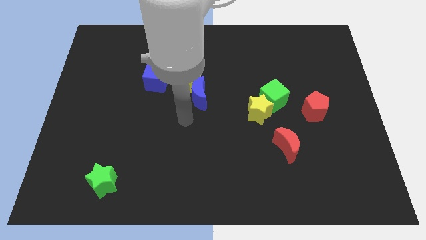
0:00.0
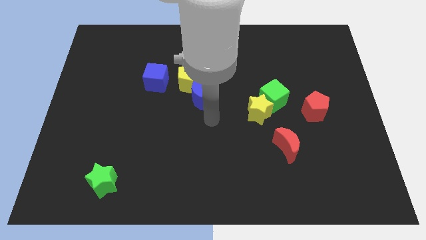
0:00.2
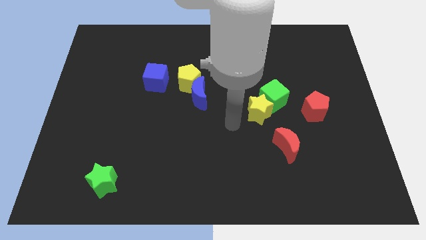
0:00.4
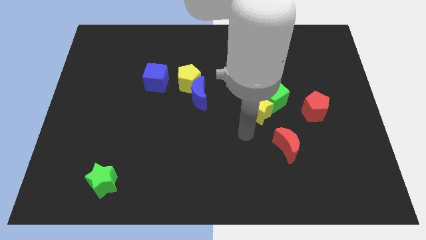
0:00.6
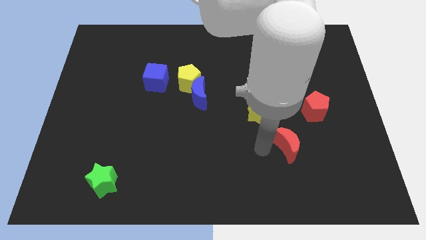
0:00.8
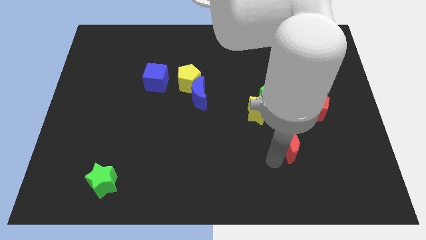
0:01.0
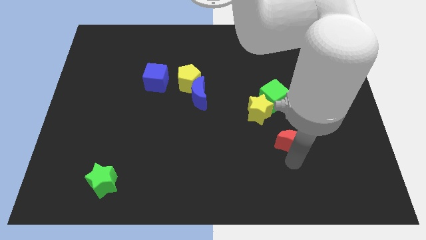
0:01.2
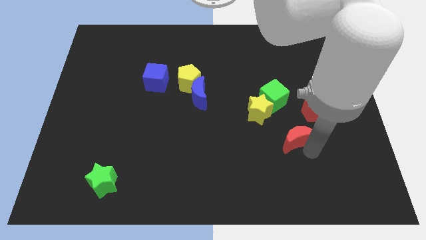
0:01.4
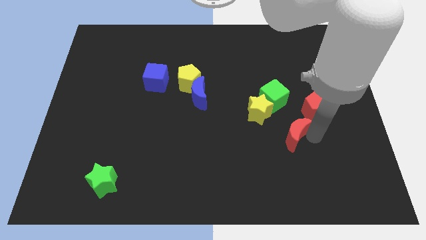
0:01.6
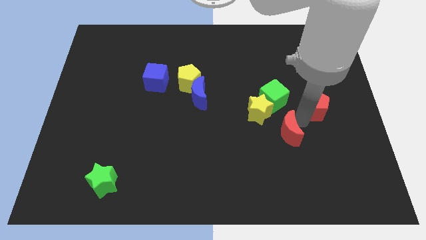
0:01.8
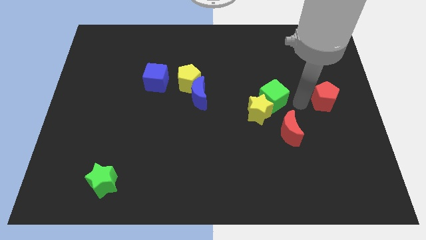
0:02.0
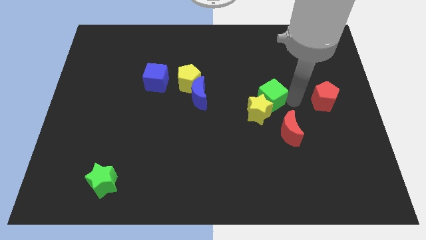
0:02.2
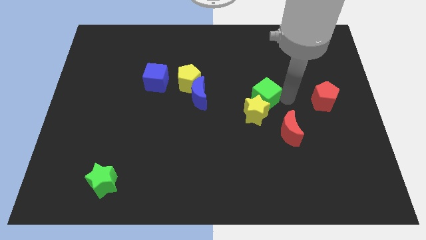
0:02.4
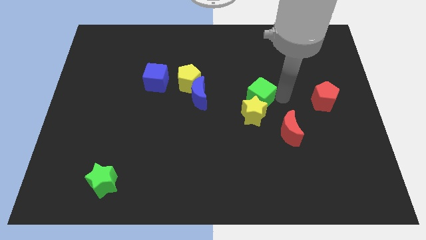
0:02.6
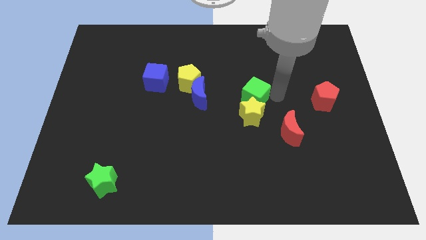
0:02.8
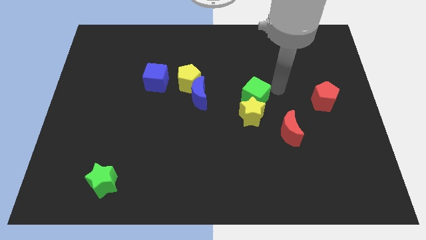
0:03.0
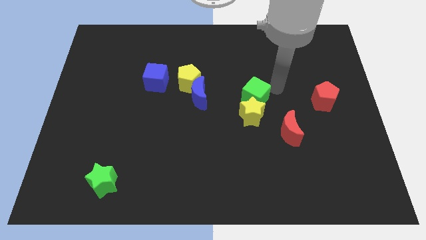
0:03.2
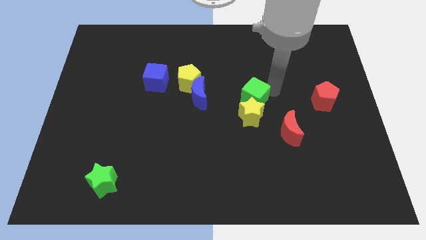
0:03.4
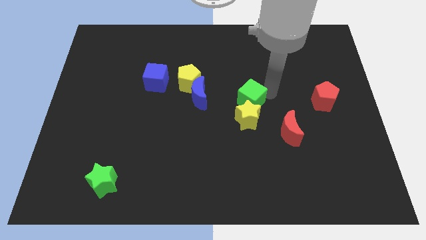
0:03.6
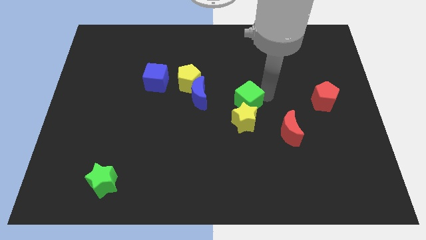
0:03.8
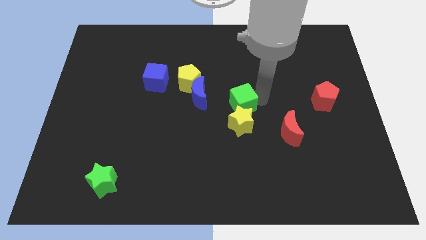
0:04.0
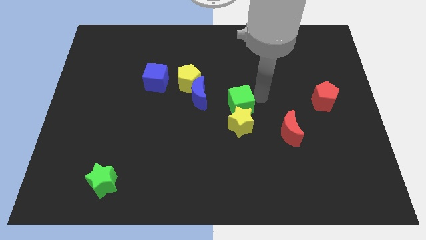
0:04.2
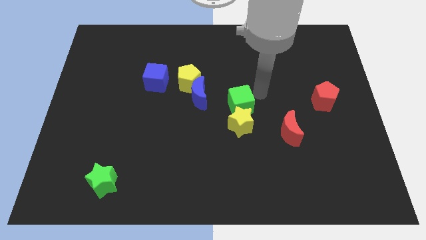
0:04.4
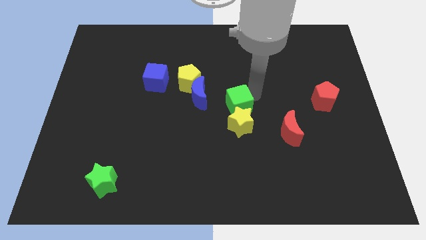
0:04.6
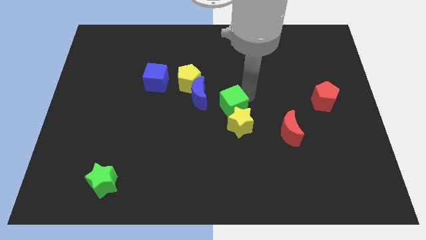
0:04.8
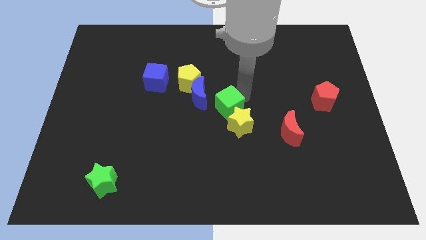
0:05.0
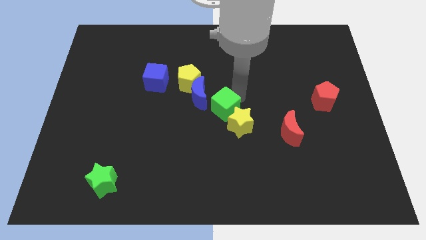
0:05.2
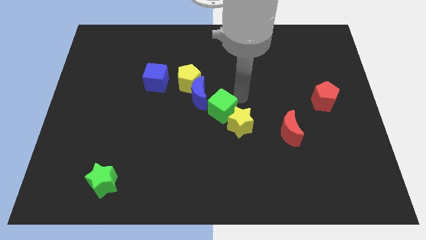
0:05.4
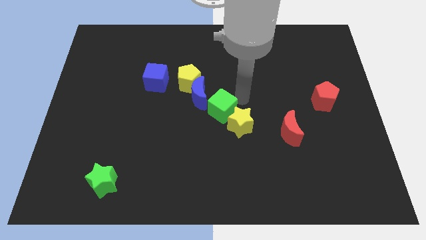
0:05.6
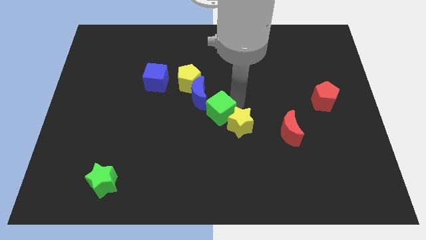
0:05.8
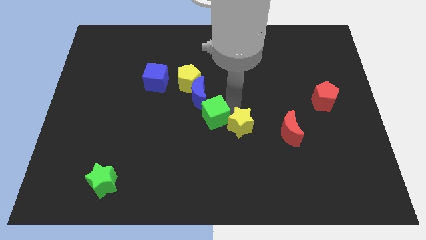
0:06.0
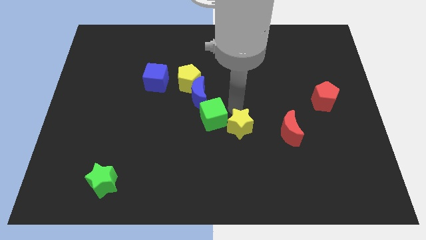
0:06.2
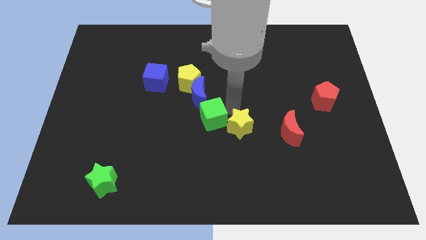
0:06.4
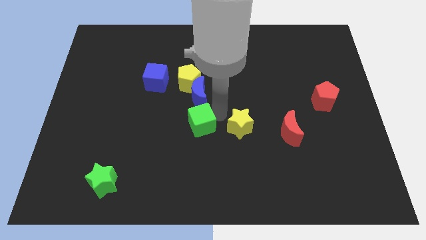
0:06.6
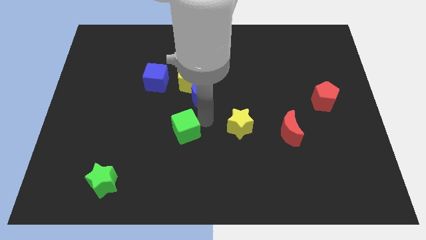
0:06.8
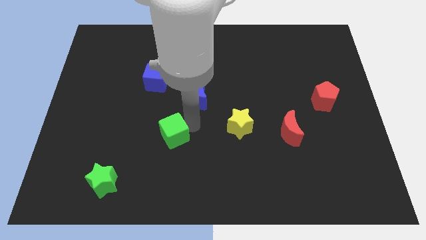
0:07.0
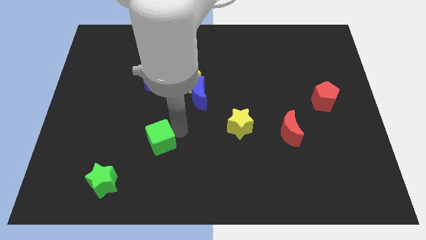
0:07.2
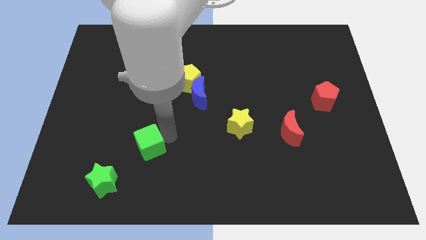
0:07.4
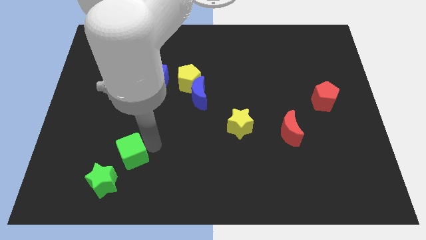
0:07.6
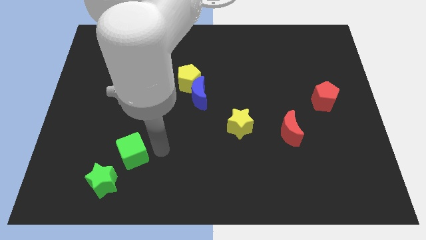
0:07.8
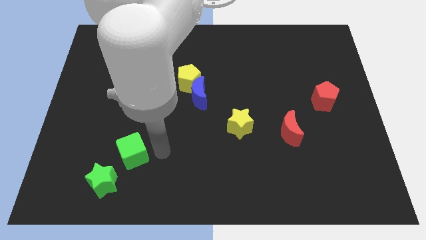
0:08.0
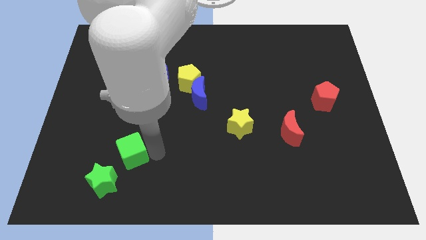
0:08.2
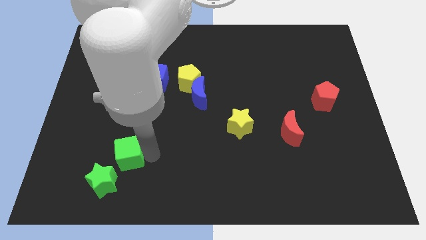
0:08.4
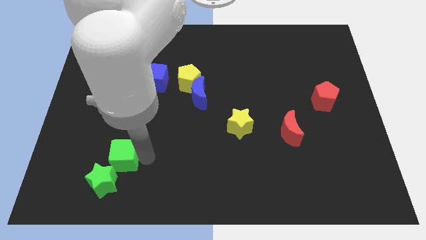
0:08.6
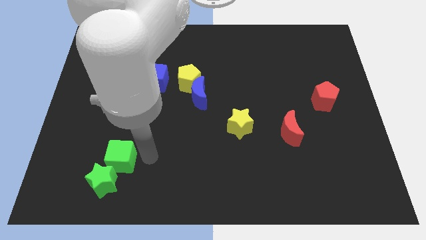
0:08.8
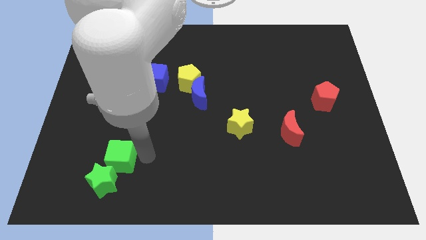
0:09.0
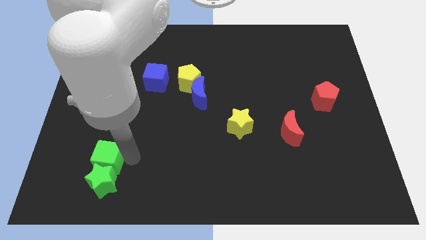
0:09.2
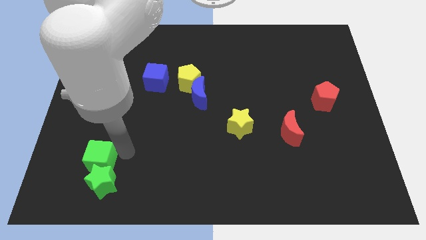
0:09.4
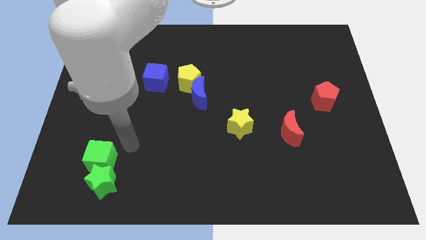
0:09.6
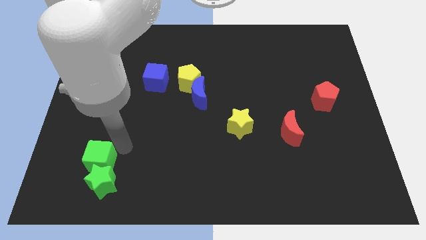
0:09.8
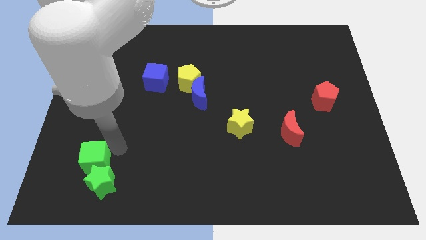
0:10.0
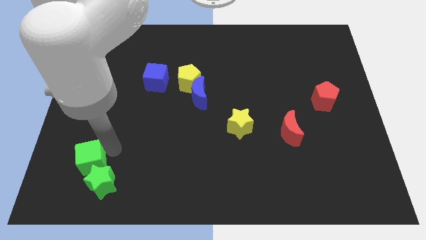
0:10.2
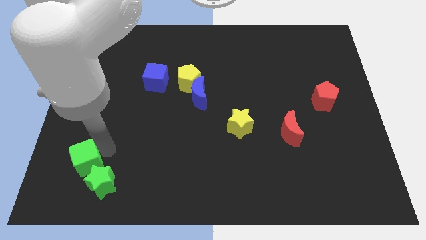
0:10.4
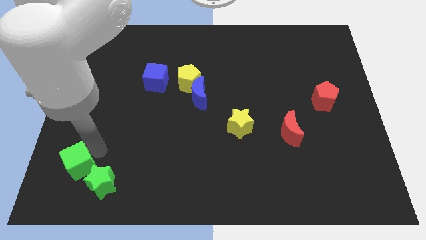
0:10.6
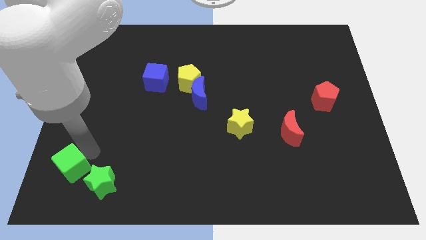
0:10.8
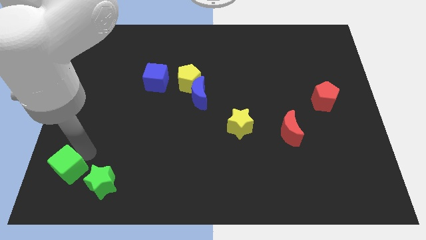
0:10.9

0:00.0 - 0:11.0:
push the green cube to the bottom left corner

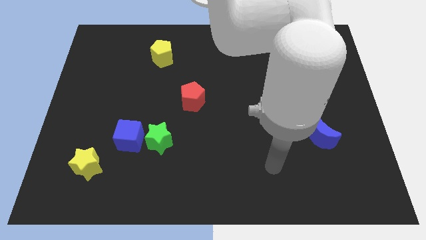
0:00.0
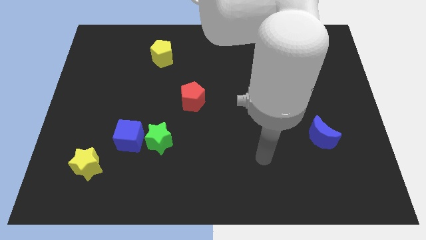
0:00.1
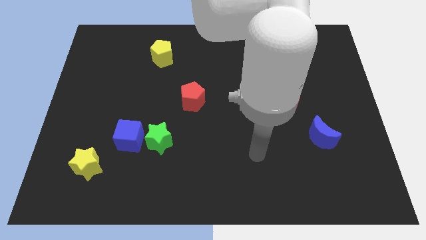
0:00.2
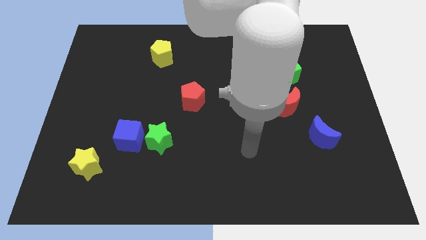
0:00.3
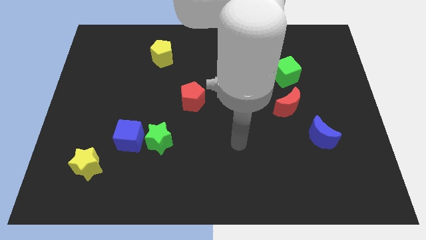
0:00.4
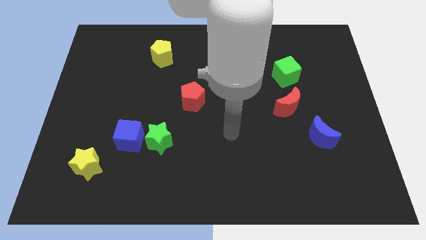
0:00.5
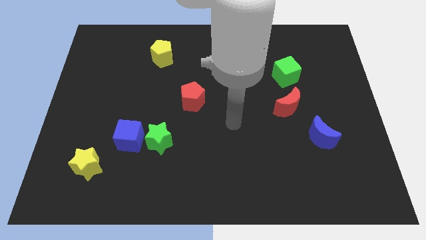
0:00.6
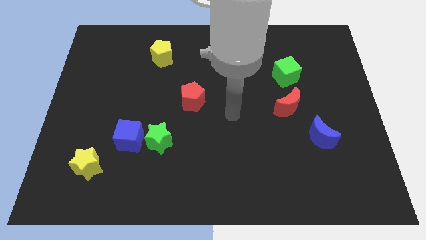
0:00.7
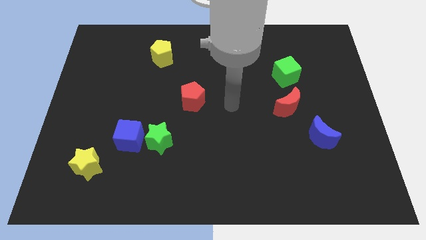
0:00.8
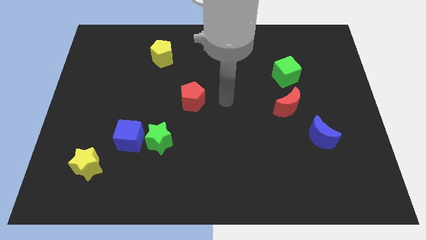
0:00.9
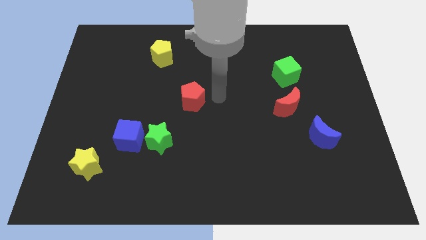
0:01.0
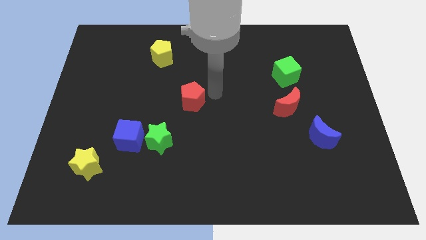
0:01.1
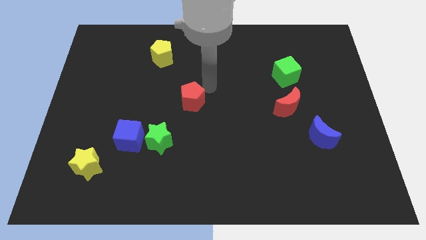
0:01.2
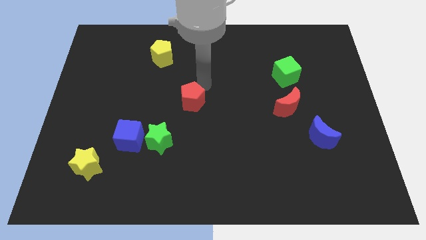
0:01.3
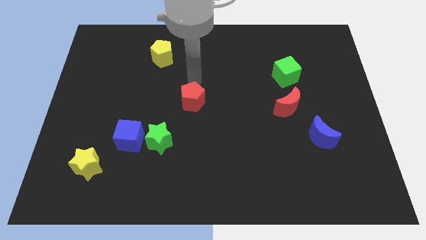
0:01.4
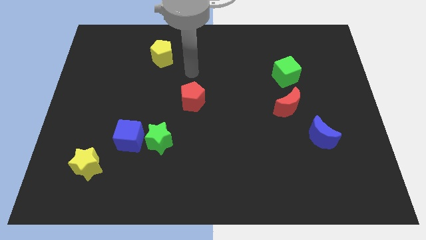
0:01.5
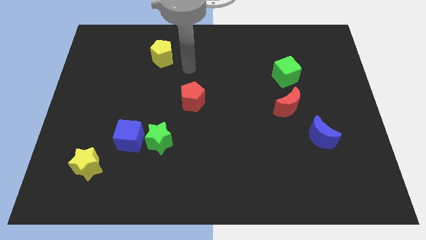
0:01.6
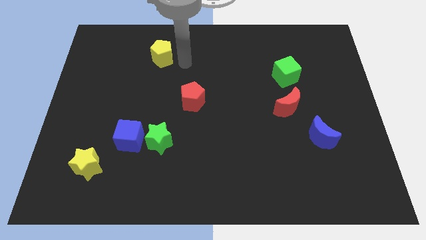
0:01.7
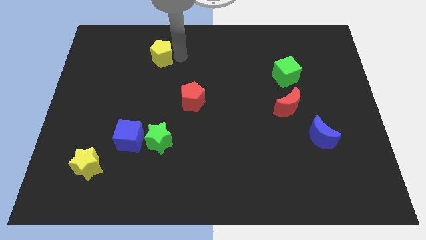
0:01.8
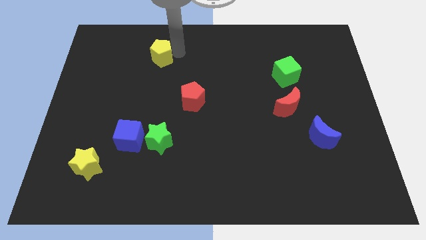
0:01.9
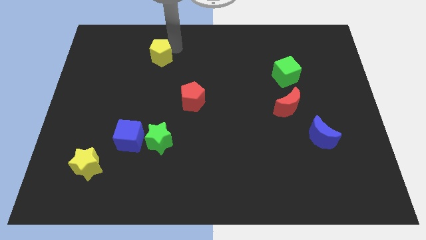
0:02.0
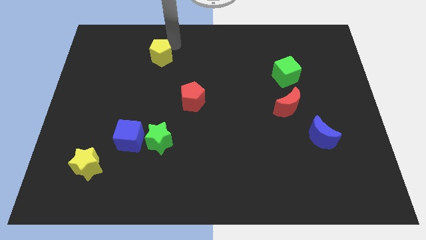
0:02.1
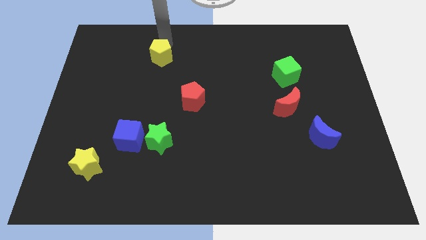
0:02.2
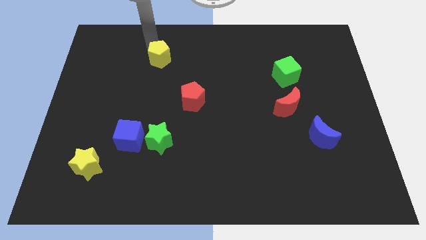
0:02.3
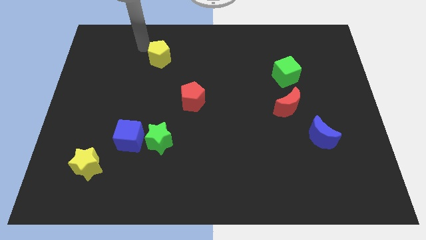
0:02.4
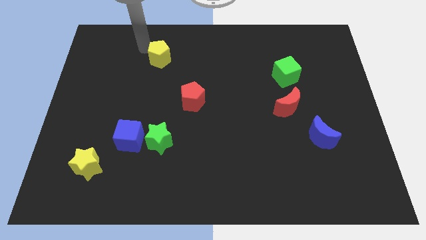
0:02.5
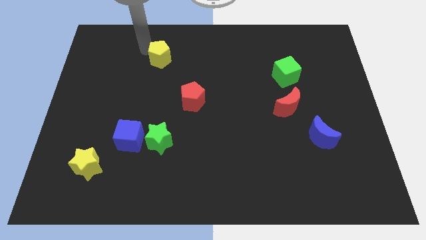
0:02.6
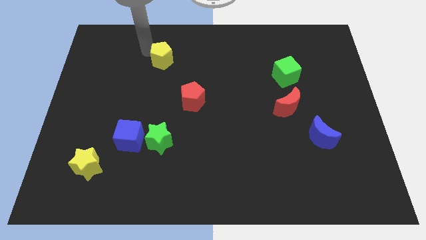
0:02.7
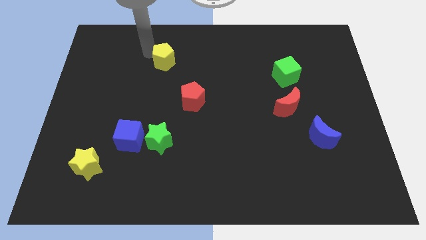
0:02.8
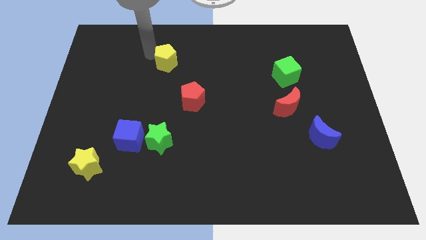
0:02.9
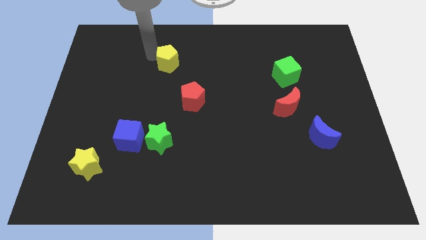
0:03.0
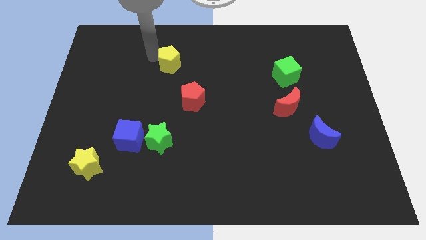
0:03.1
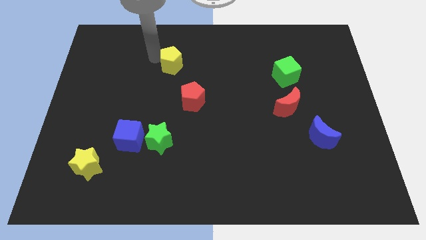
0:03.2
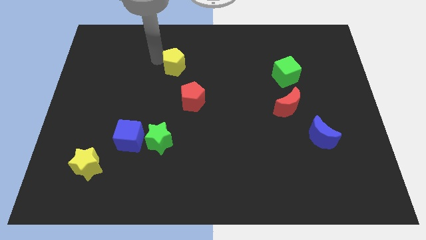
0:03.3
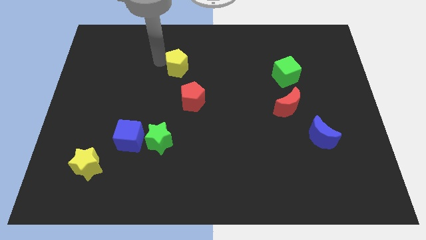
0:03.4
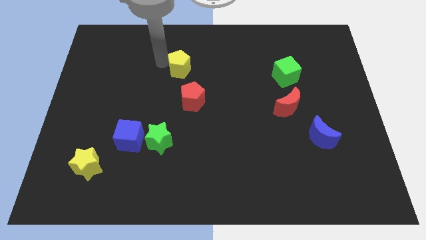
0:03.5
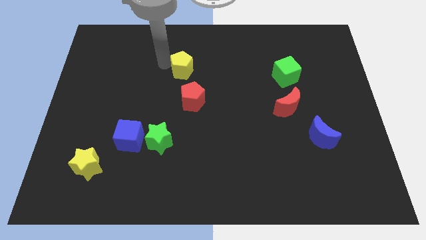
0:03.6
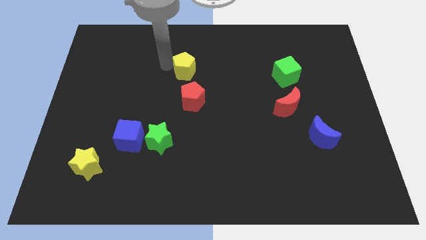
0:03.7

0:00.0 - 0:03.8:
put the yellow pentagon to the middle of the board
